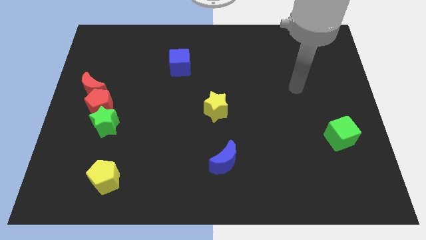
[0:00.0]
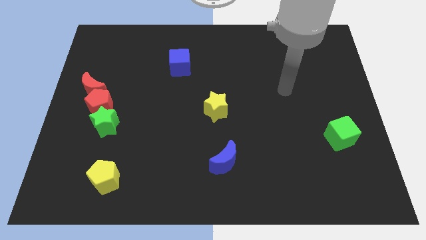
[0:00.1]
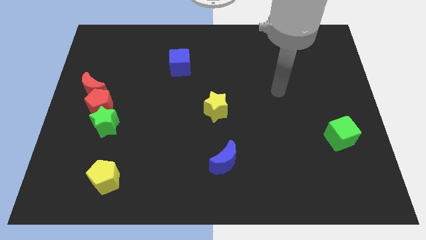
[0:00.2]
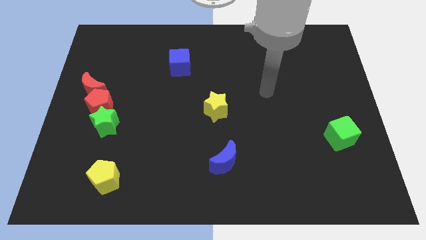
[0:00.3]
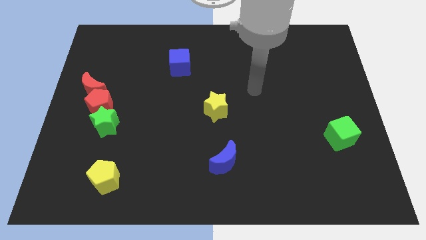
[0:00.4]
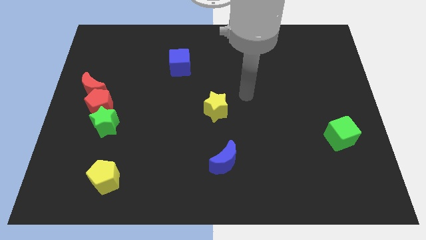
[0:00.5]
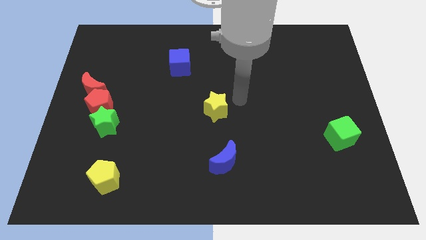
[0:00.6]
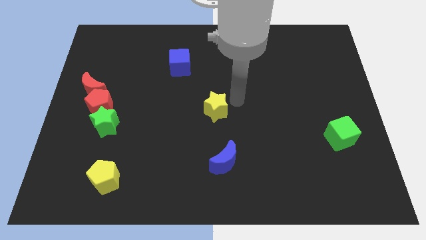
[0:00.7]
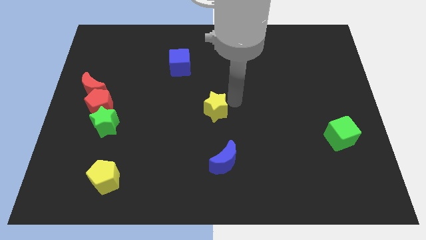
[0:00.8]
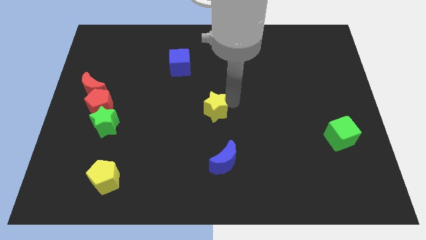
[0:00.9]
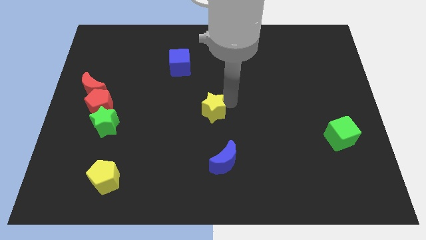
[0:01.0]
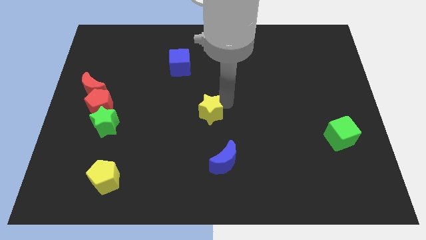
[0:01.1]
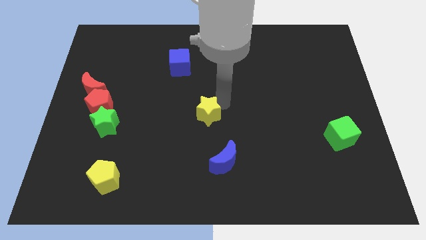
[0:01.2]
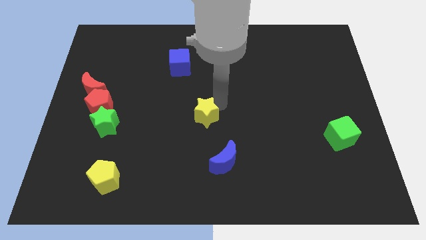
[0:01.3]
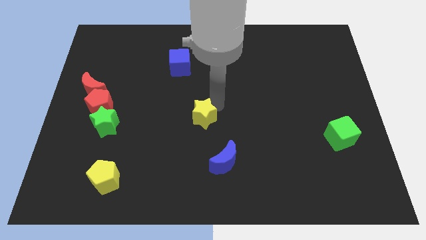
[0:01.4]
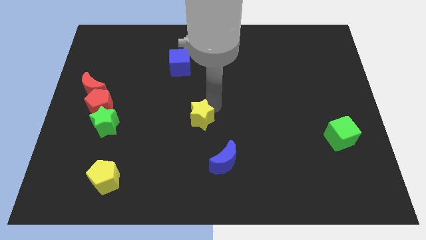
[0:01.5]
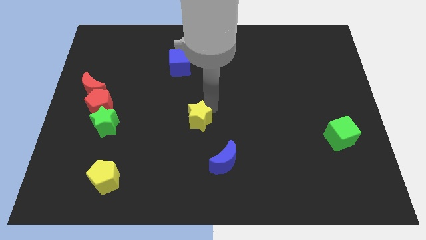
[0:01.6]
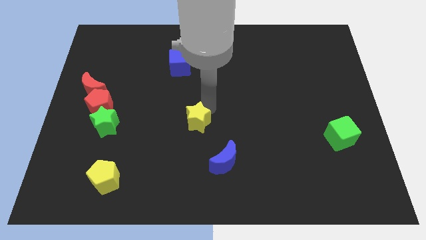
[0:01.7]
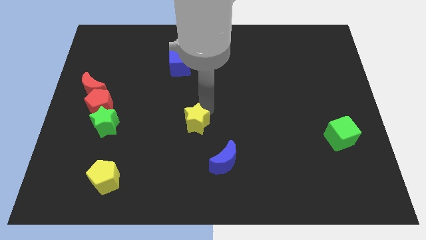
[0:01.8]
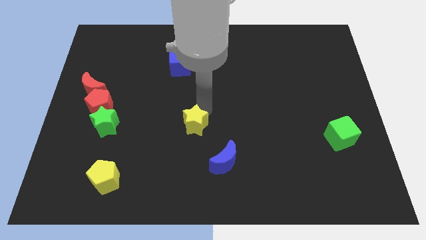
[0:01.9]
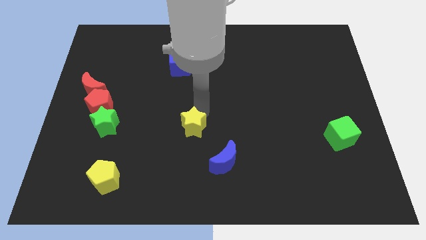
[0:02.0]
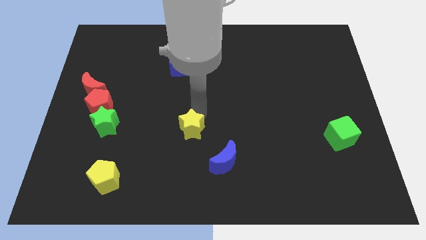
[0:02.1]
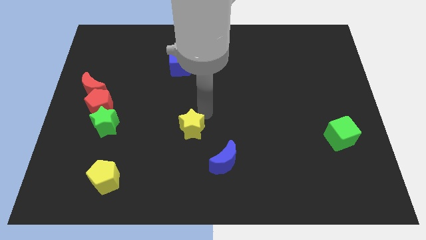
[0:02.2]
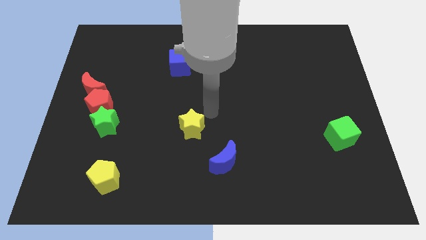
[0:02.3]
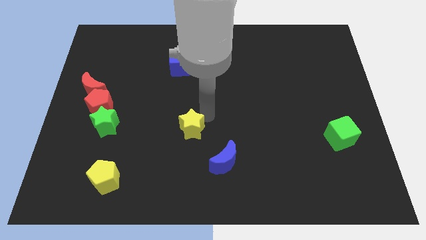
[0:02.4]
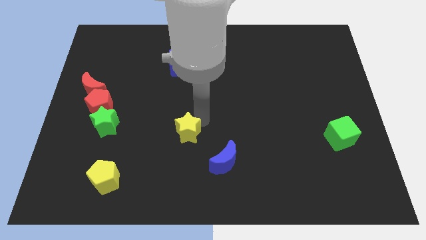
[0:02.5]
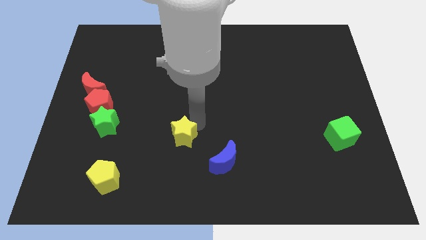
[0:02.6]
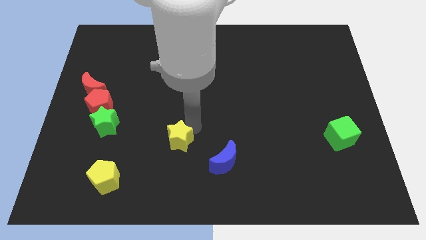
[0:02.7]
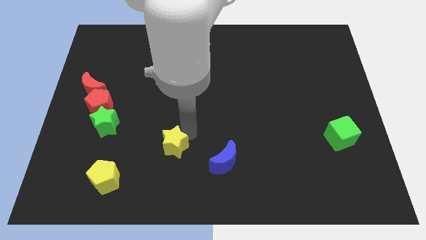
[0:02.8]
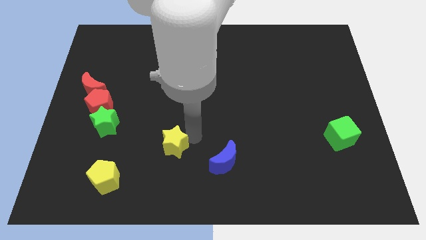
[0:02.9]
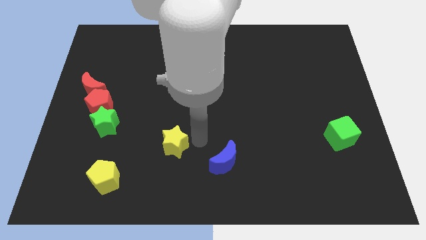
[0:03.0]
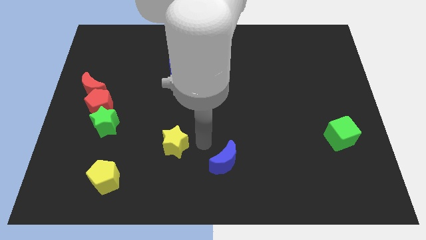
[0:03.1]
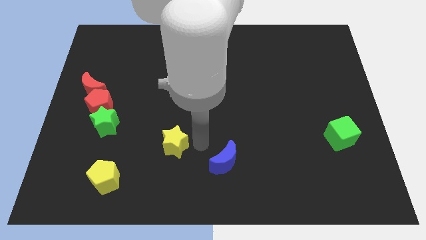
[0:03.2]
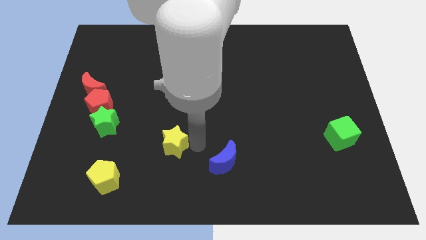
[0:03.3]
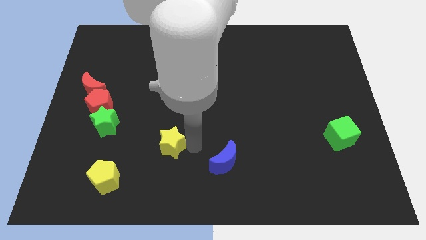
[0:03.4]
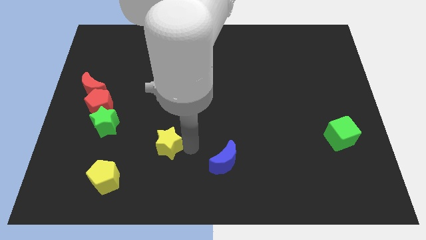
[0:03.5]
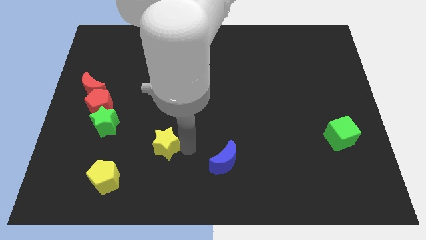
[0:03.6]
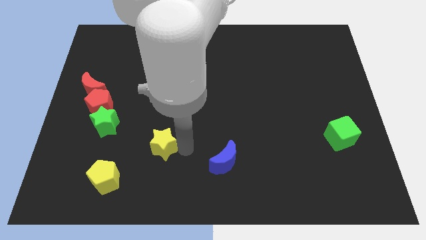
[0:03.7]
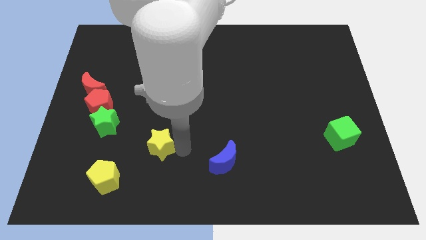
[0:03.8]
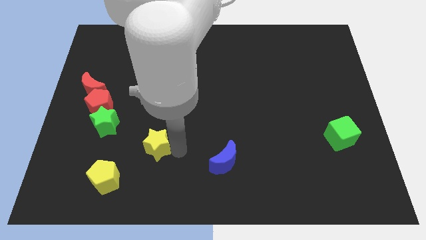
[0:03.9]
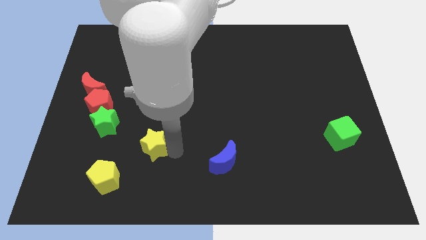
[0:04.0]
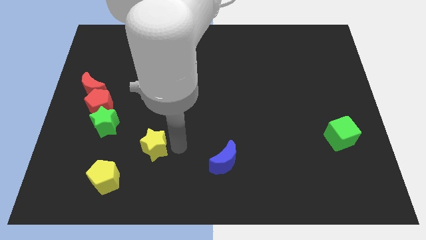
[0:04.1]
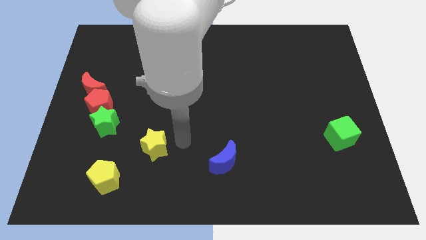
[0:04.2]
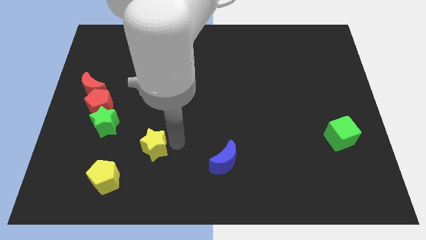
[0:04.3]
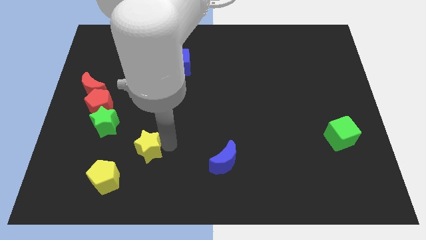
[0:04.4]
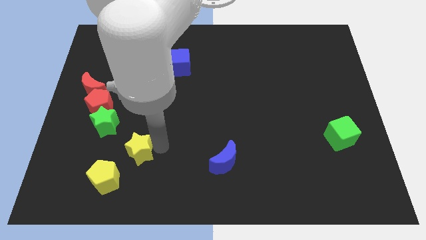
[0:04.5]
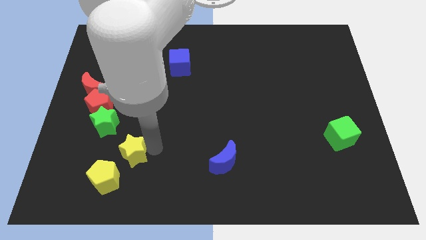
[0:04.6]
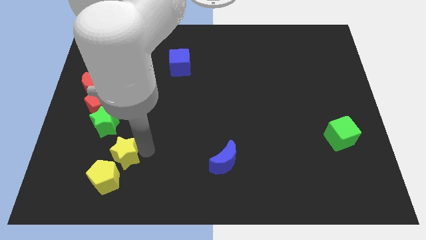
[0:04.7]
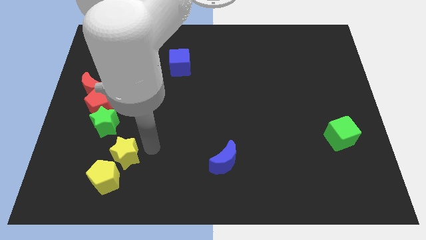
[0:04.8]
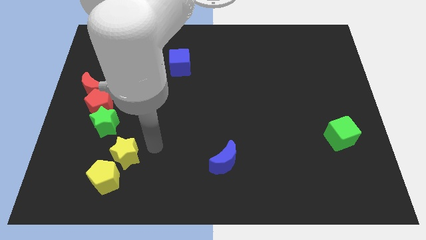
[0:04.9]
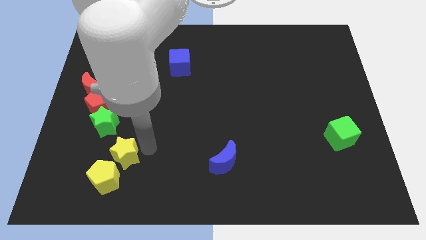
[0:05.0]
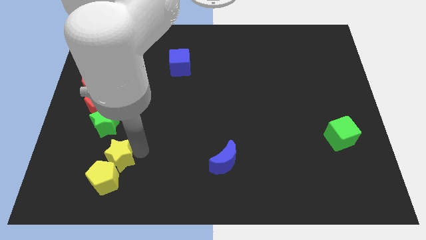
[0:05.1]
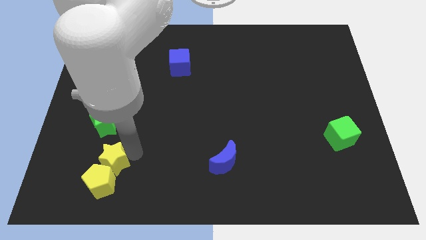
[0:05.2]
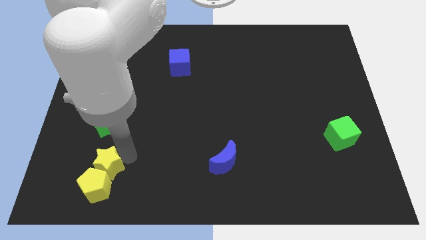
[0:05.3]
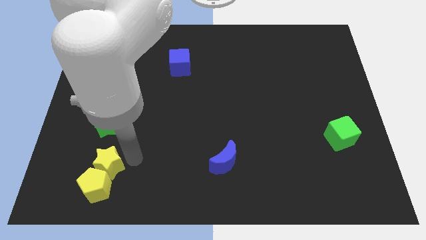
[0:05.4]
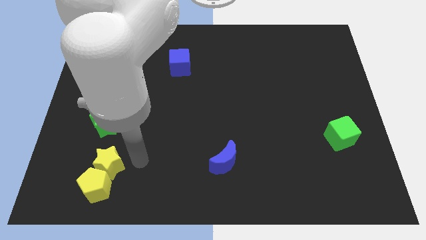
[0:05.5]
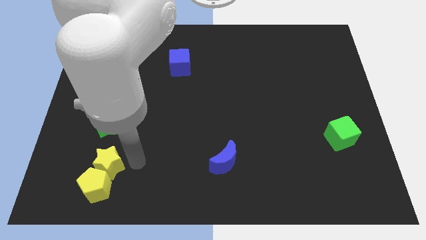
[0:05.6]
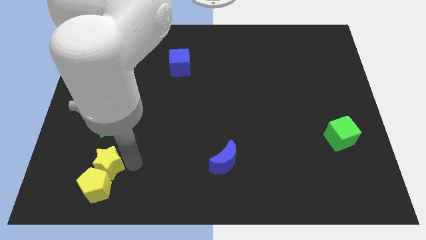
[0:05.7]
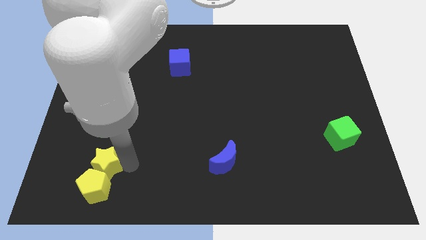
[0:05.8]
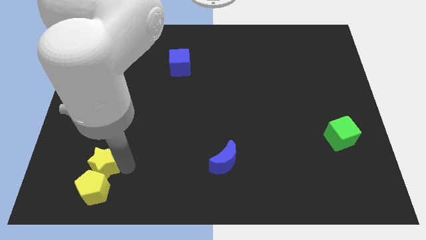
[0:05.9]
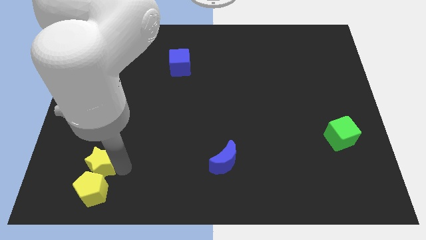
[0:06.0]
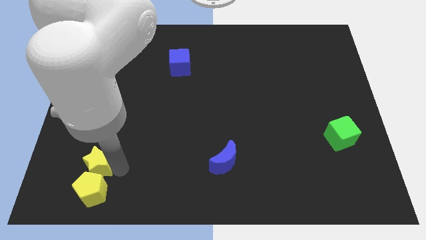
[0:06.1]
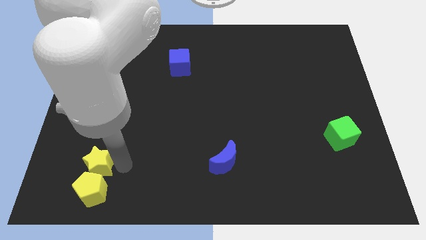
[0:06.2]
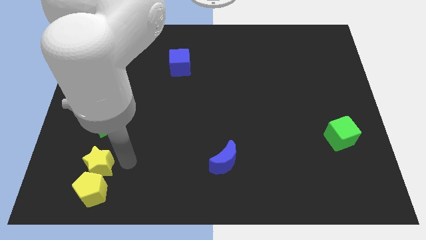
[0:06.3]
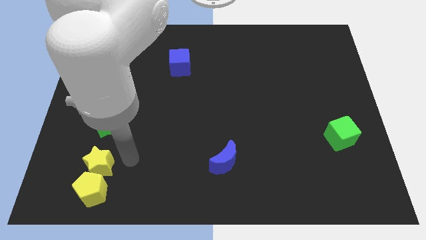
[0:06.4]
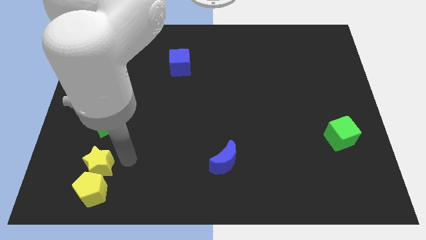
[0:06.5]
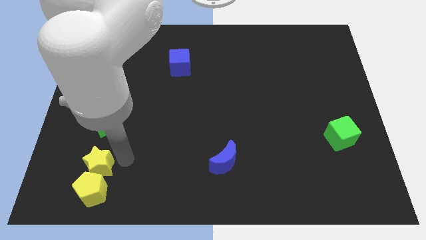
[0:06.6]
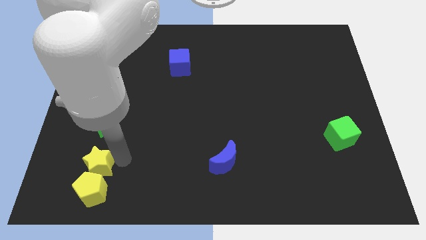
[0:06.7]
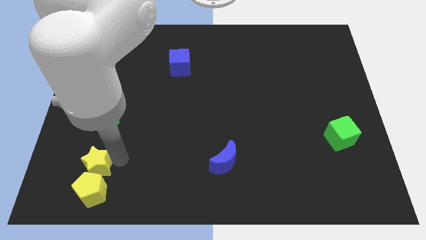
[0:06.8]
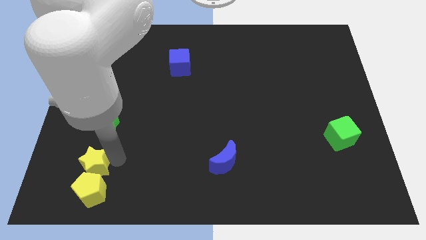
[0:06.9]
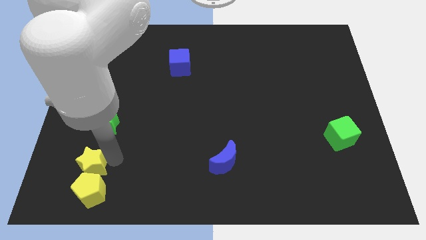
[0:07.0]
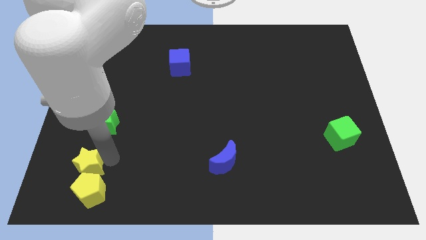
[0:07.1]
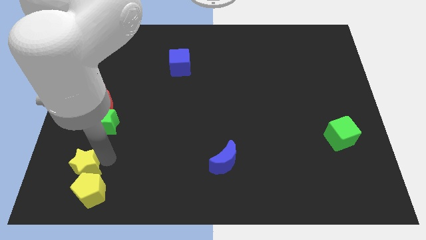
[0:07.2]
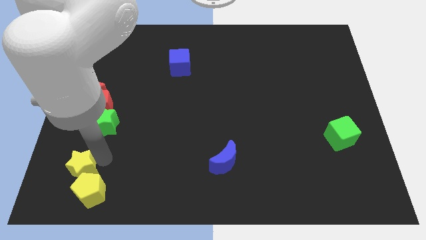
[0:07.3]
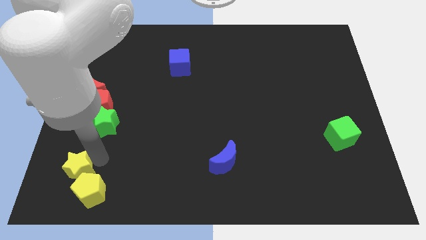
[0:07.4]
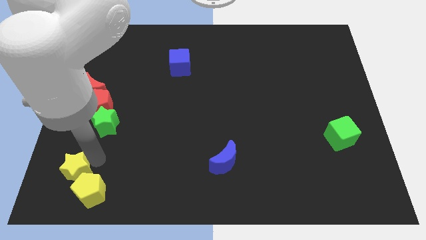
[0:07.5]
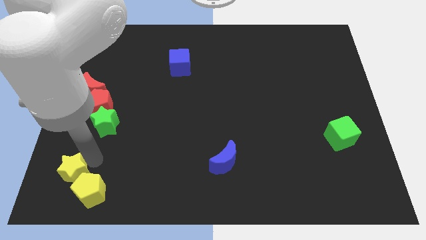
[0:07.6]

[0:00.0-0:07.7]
move the yellow star to the lower left corner
